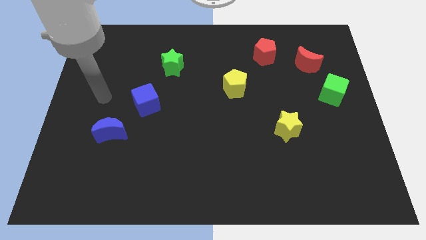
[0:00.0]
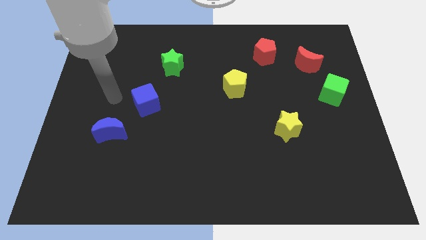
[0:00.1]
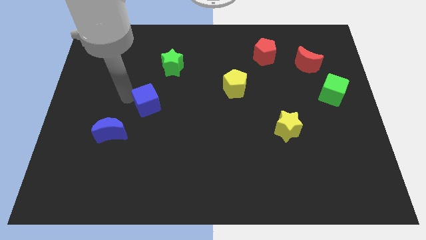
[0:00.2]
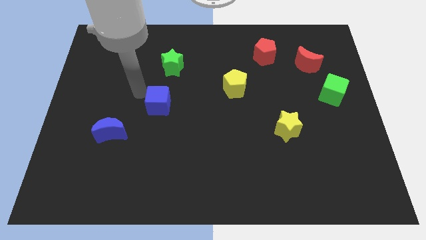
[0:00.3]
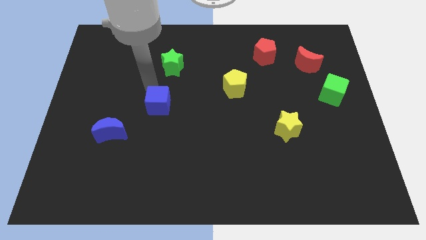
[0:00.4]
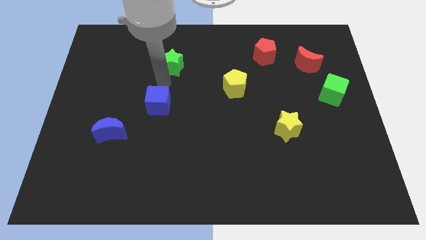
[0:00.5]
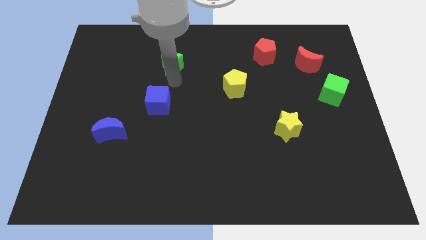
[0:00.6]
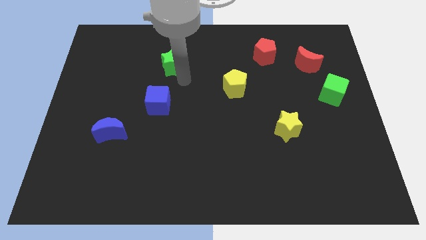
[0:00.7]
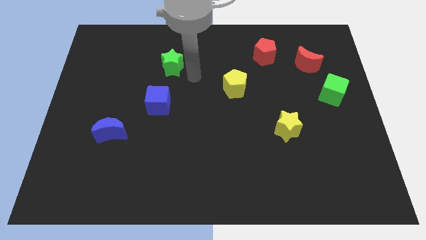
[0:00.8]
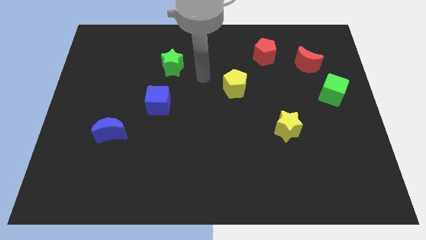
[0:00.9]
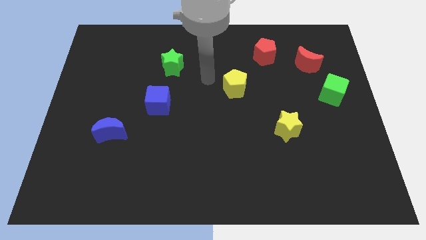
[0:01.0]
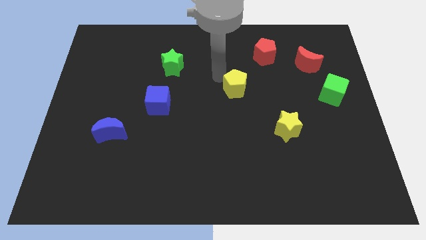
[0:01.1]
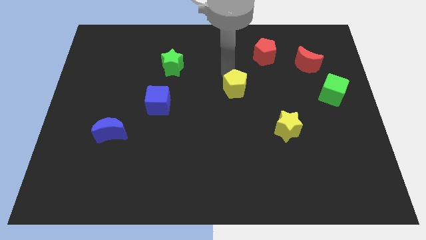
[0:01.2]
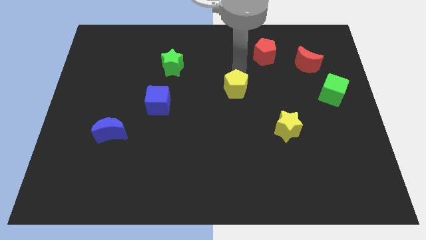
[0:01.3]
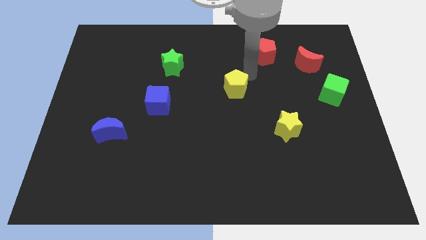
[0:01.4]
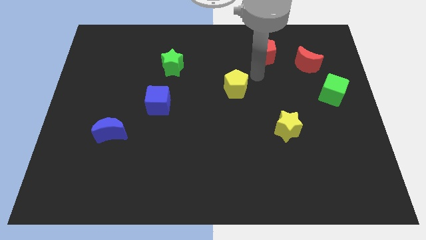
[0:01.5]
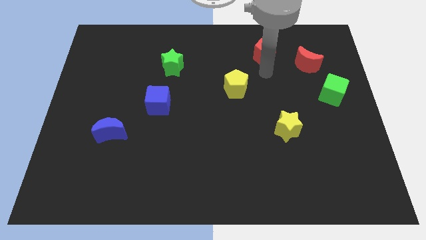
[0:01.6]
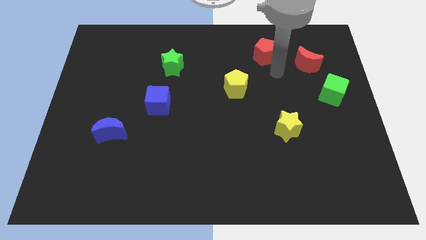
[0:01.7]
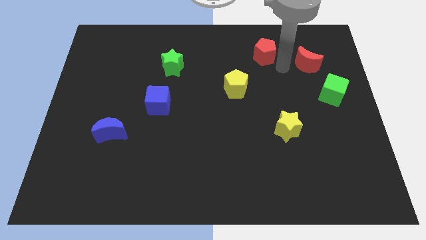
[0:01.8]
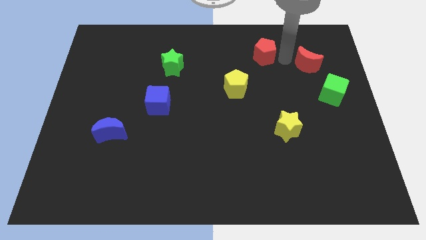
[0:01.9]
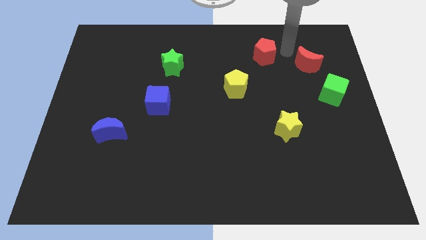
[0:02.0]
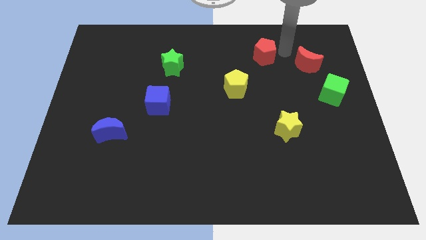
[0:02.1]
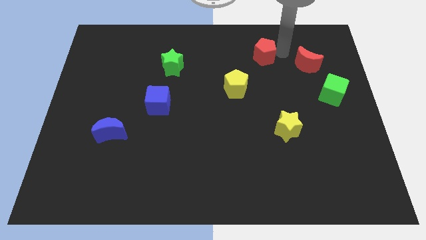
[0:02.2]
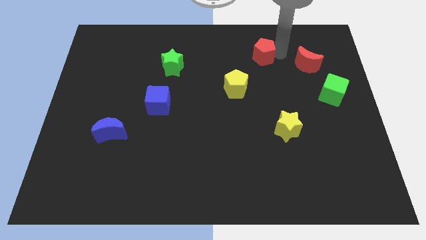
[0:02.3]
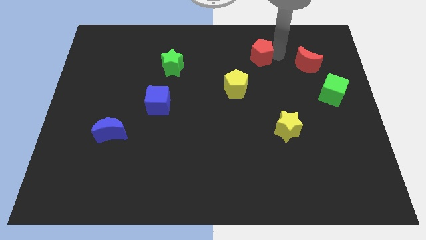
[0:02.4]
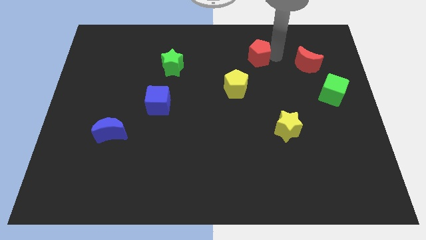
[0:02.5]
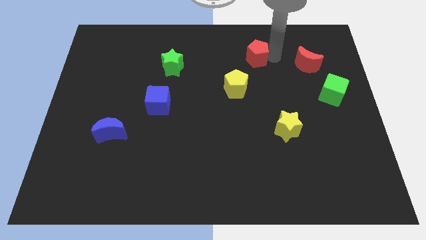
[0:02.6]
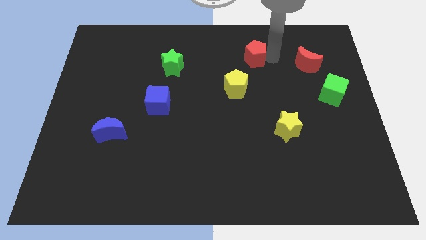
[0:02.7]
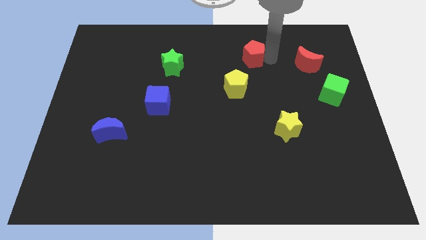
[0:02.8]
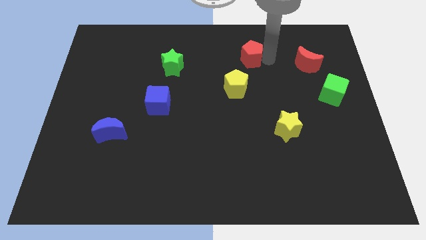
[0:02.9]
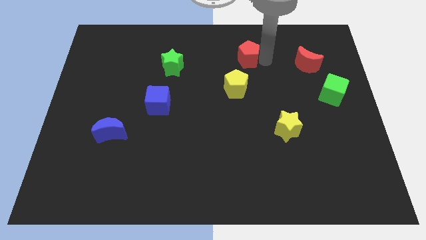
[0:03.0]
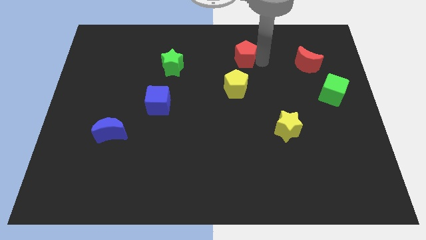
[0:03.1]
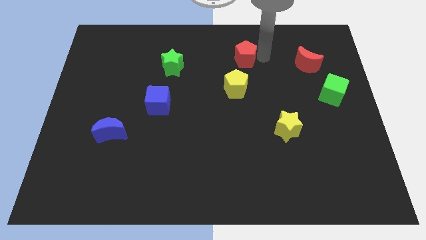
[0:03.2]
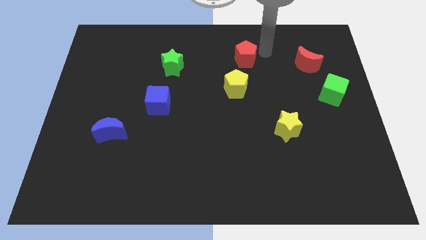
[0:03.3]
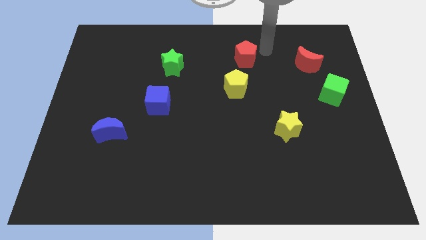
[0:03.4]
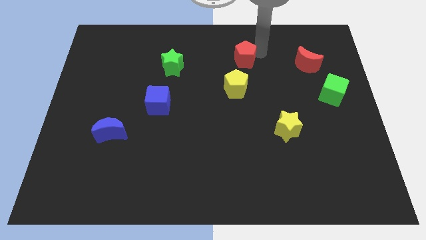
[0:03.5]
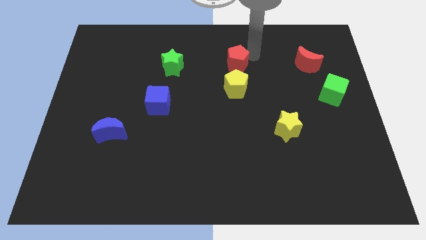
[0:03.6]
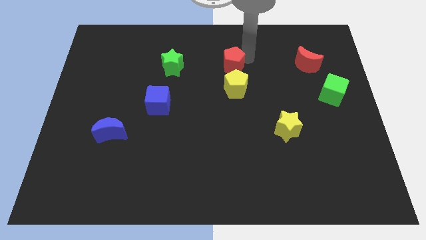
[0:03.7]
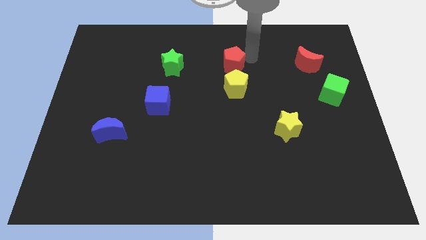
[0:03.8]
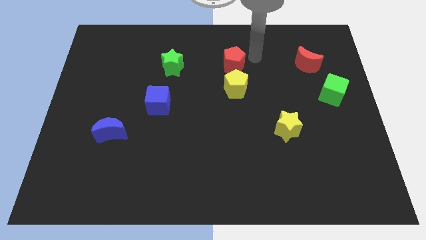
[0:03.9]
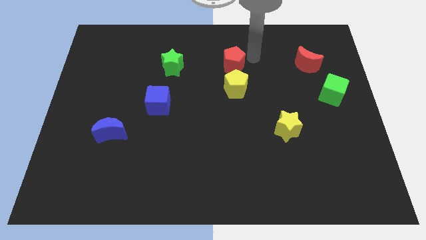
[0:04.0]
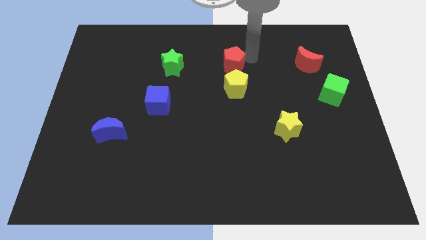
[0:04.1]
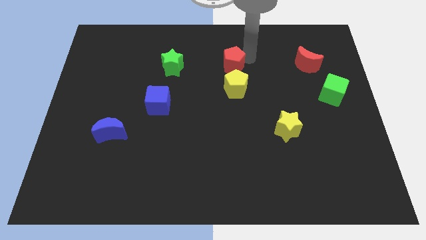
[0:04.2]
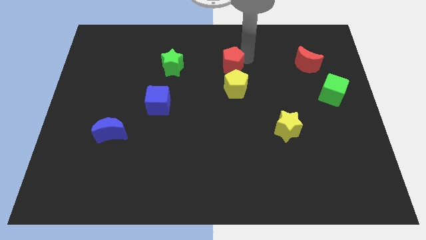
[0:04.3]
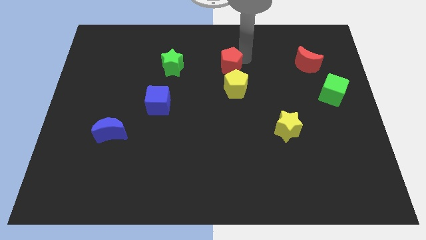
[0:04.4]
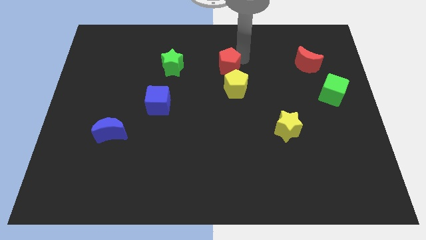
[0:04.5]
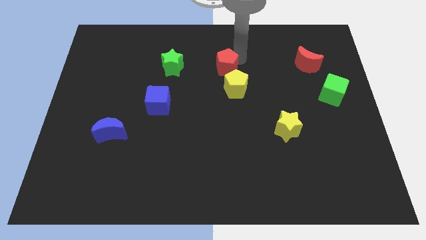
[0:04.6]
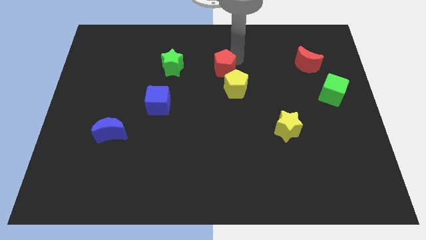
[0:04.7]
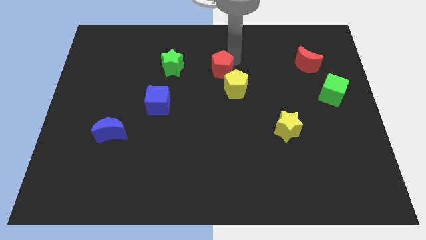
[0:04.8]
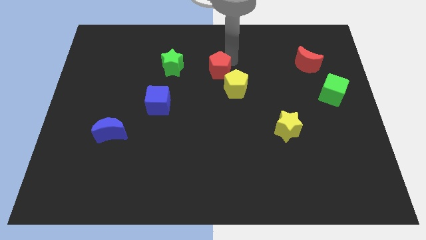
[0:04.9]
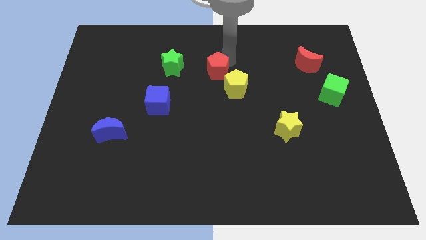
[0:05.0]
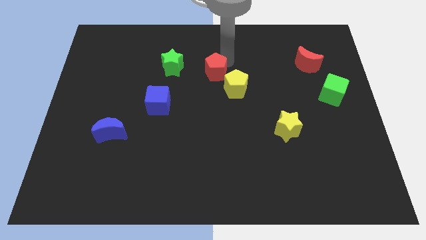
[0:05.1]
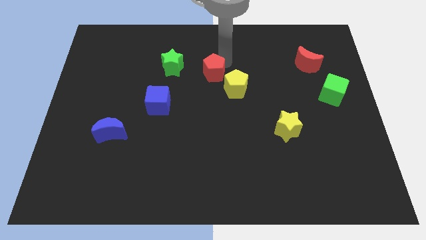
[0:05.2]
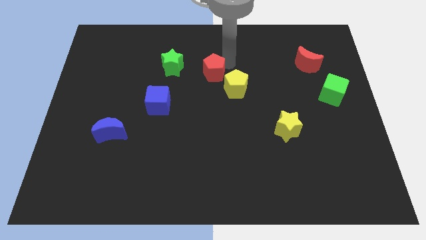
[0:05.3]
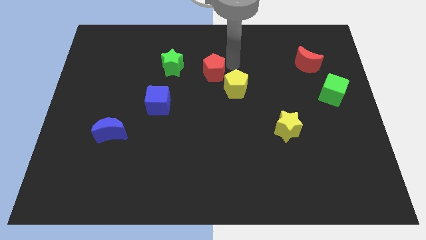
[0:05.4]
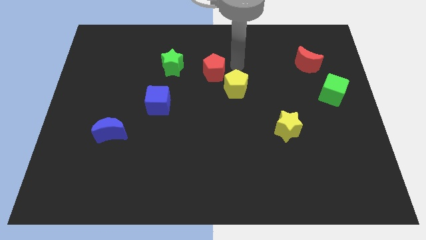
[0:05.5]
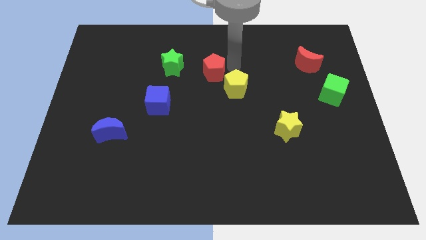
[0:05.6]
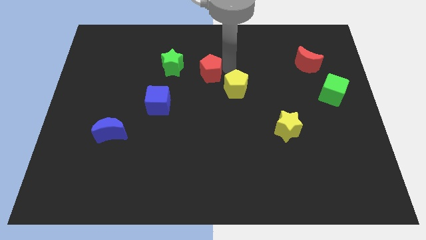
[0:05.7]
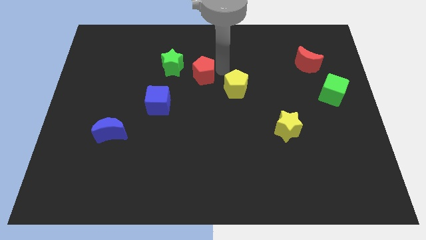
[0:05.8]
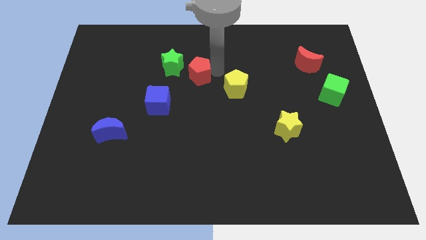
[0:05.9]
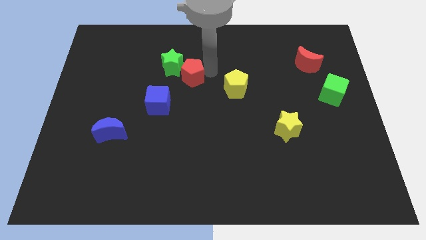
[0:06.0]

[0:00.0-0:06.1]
push the red pentagon to the top right side of the blue cube
